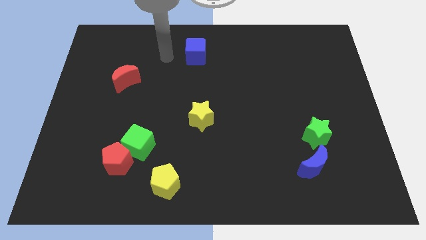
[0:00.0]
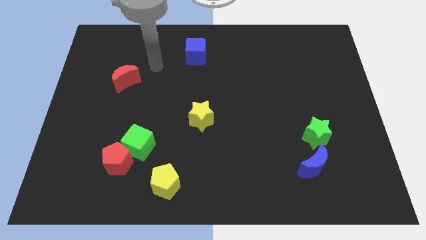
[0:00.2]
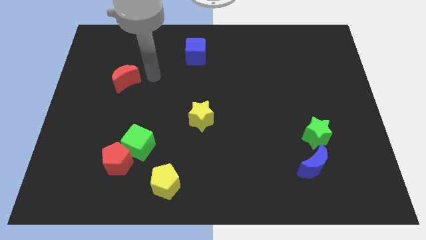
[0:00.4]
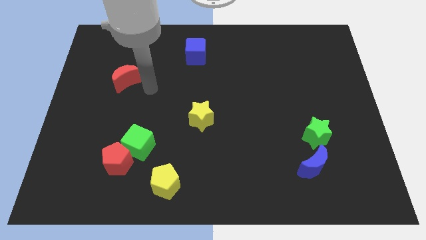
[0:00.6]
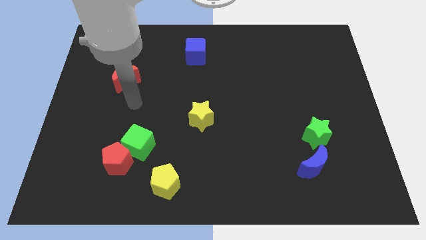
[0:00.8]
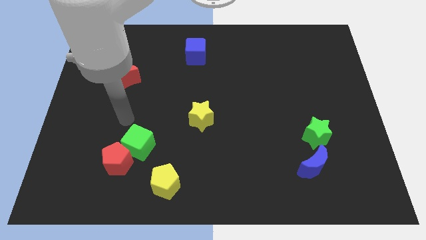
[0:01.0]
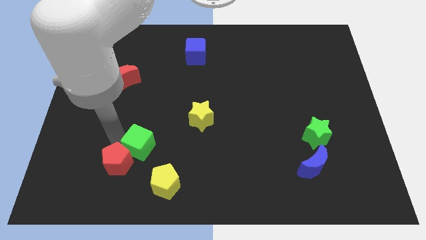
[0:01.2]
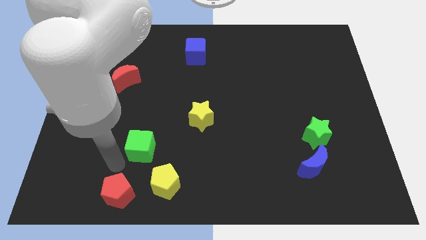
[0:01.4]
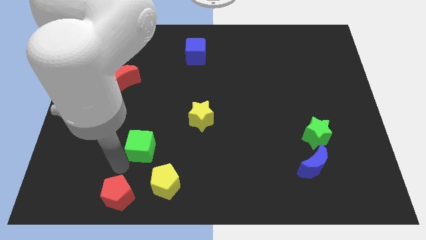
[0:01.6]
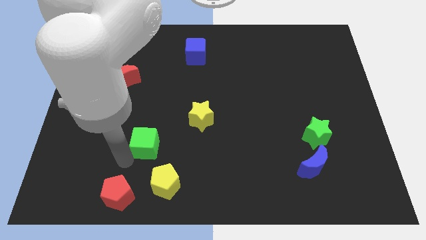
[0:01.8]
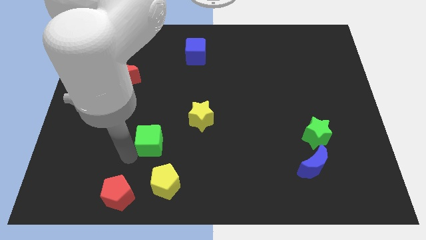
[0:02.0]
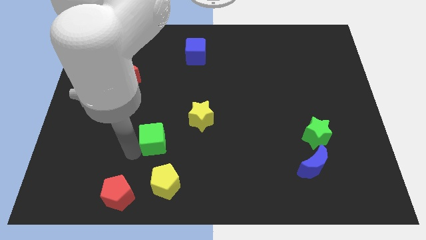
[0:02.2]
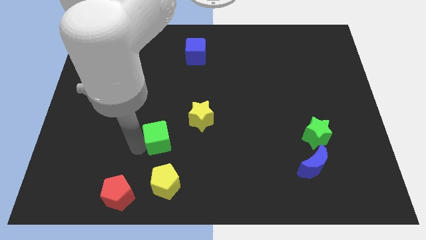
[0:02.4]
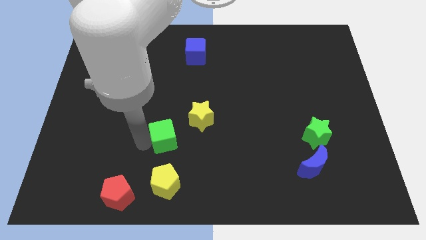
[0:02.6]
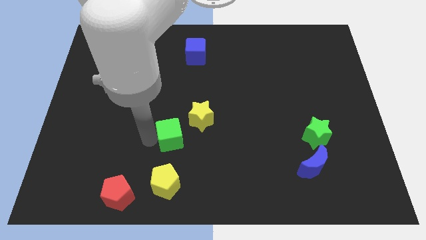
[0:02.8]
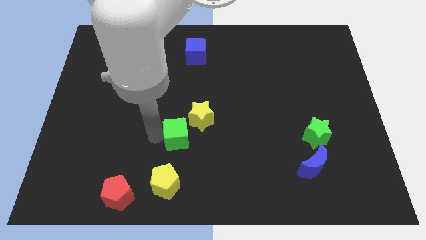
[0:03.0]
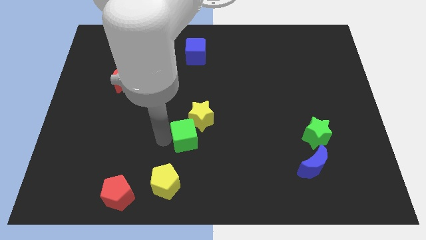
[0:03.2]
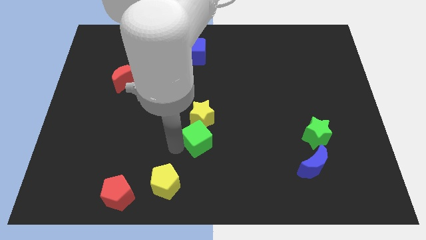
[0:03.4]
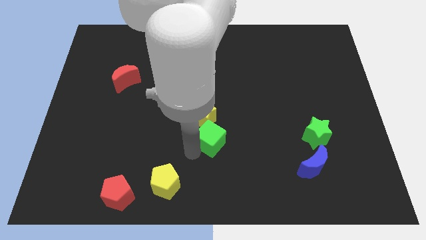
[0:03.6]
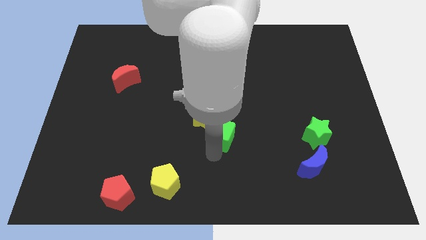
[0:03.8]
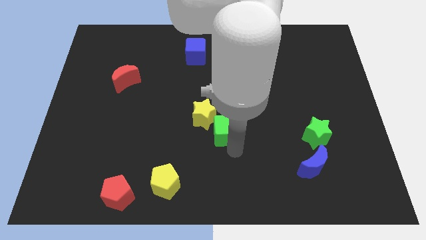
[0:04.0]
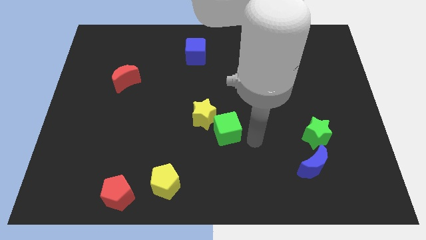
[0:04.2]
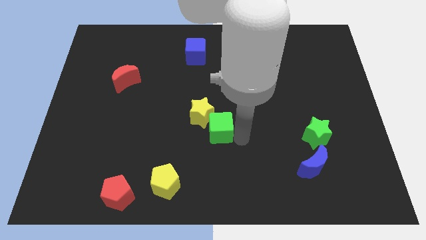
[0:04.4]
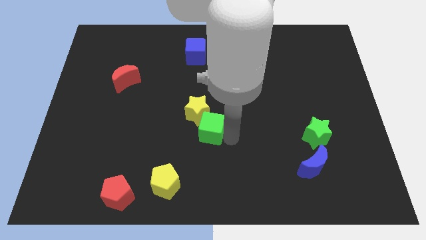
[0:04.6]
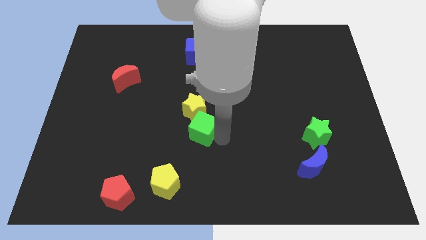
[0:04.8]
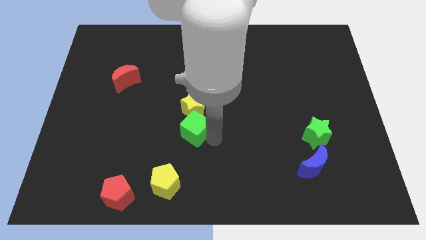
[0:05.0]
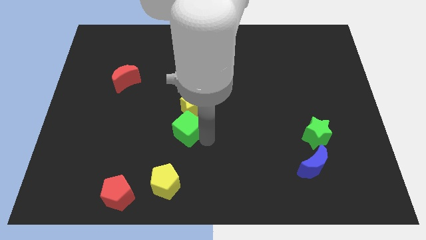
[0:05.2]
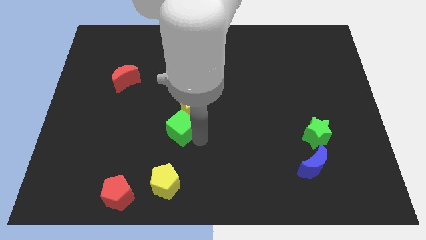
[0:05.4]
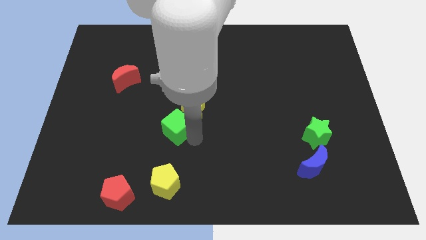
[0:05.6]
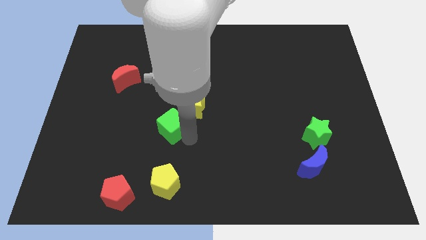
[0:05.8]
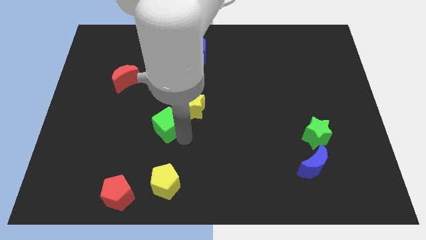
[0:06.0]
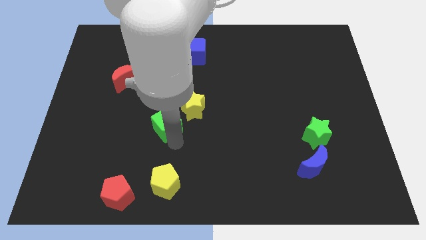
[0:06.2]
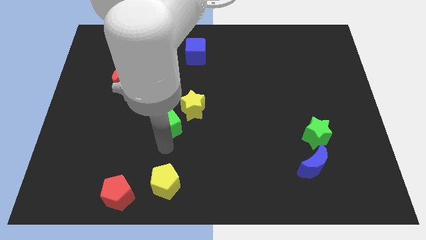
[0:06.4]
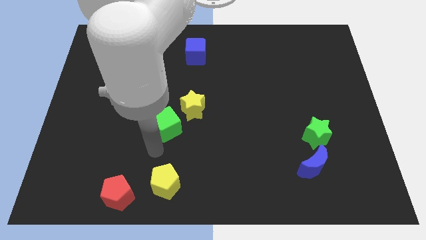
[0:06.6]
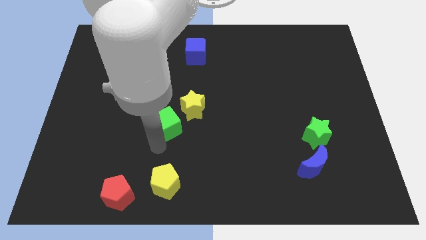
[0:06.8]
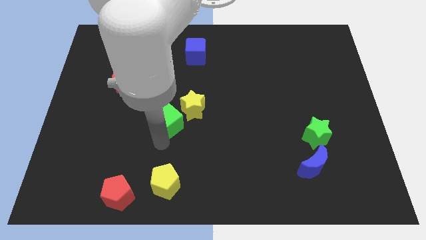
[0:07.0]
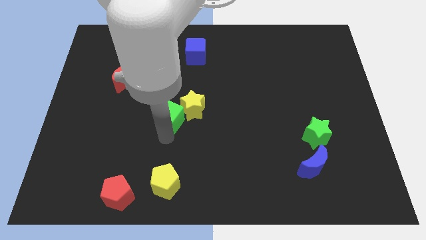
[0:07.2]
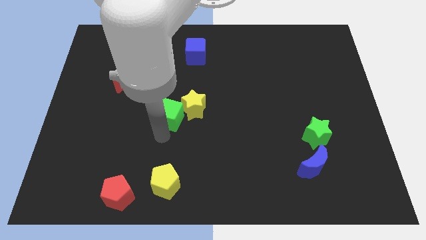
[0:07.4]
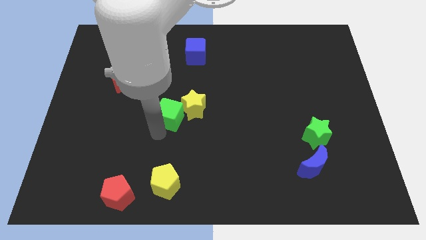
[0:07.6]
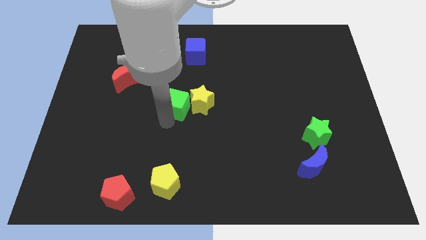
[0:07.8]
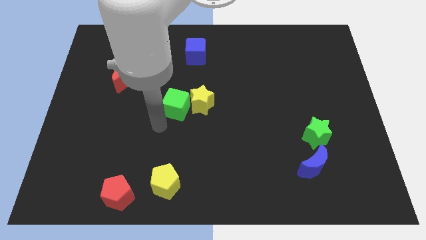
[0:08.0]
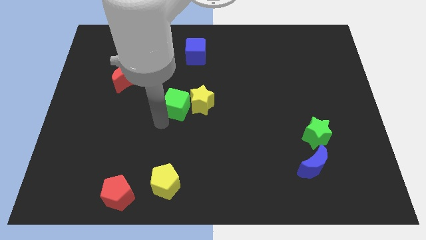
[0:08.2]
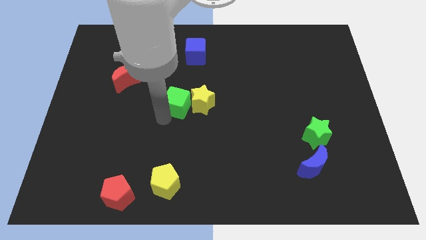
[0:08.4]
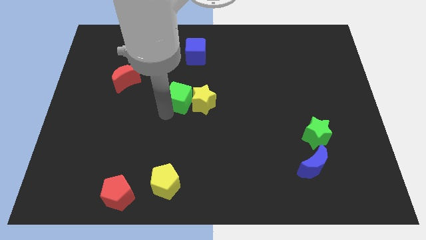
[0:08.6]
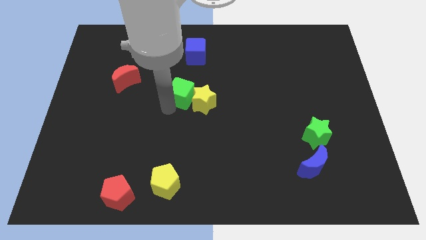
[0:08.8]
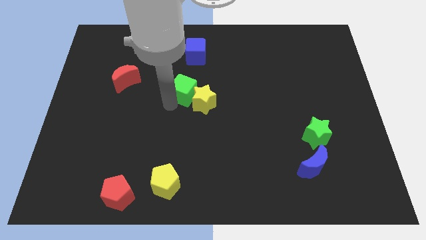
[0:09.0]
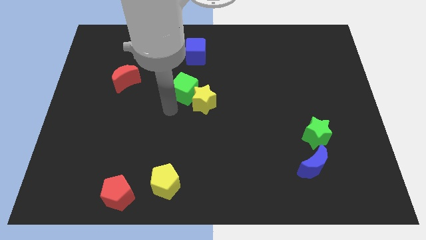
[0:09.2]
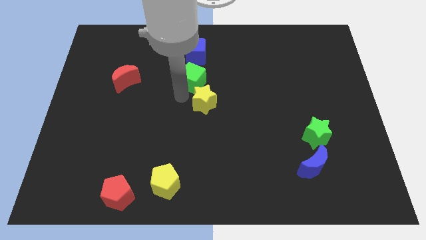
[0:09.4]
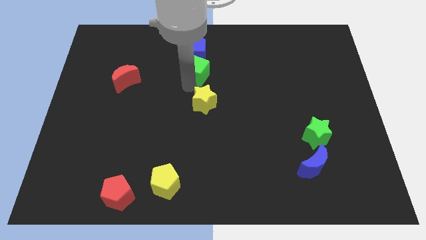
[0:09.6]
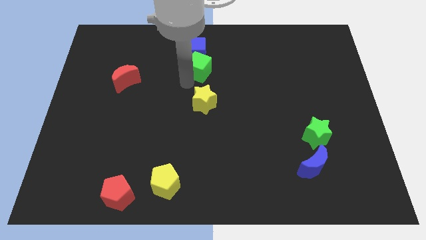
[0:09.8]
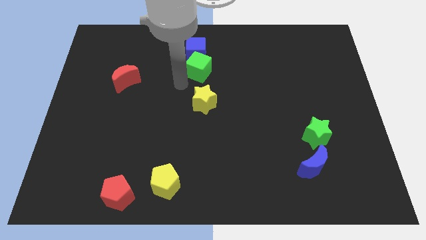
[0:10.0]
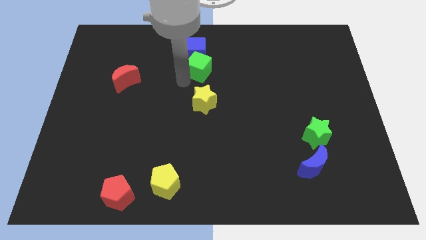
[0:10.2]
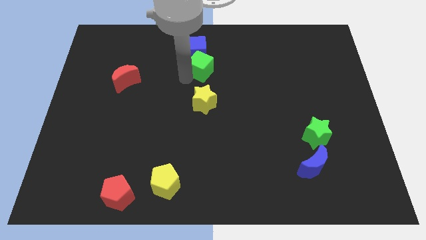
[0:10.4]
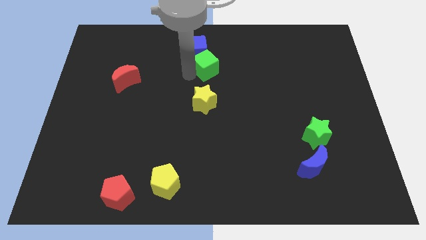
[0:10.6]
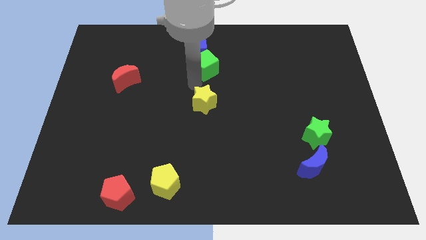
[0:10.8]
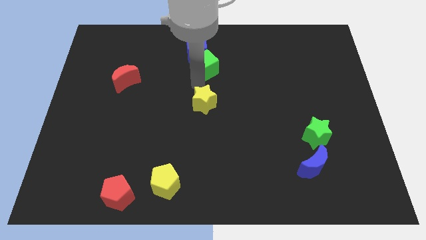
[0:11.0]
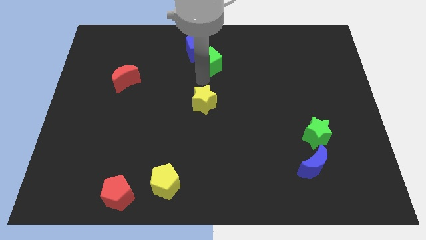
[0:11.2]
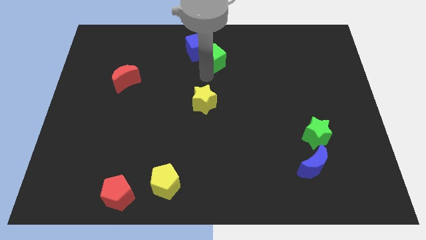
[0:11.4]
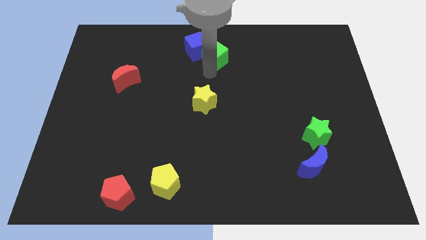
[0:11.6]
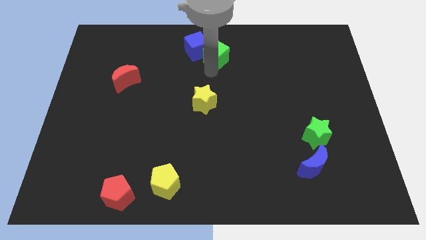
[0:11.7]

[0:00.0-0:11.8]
push the green cube to the top
